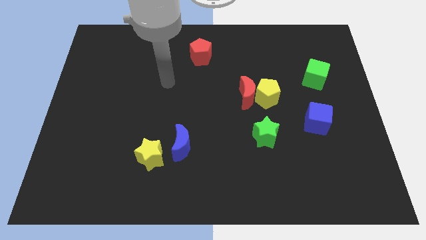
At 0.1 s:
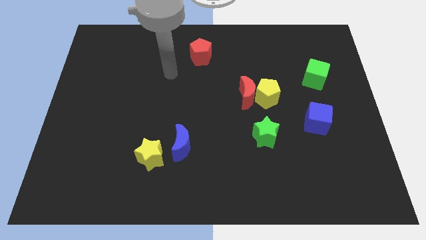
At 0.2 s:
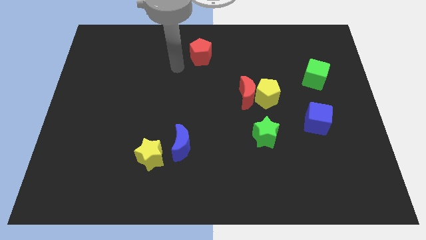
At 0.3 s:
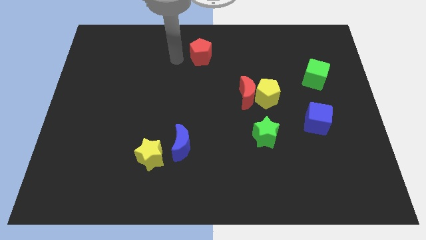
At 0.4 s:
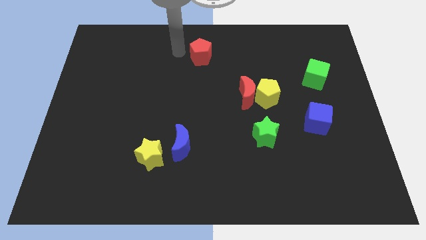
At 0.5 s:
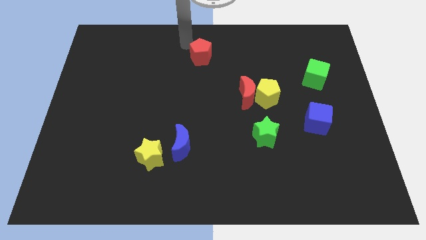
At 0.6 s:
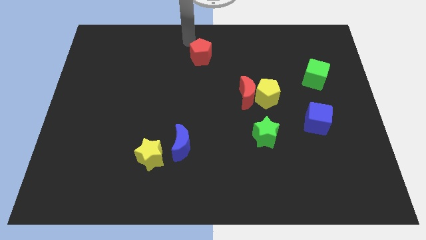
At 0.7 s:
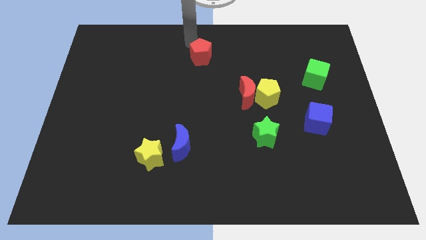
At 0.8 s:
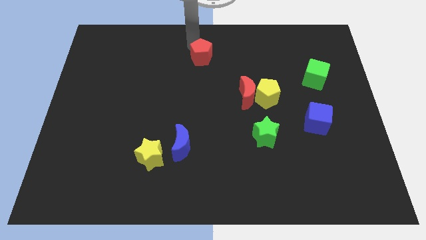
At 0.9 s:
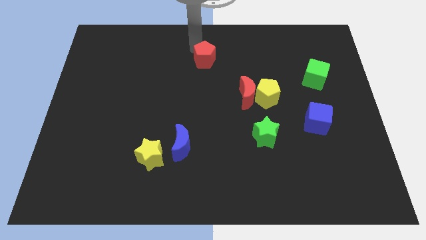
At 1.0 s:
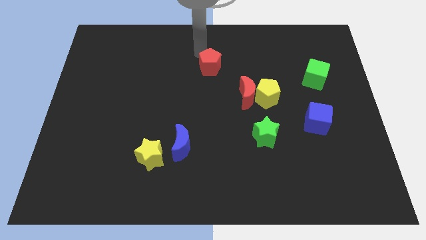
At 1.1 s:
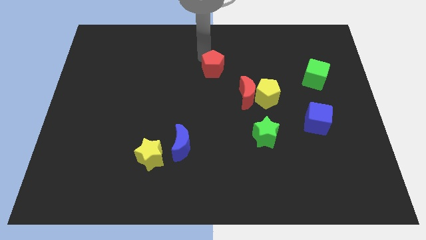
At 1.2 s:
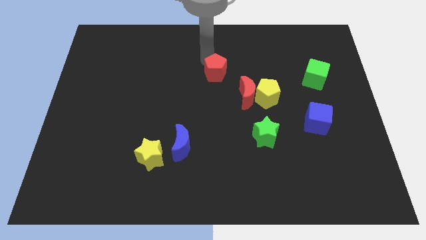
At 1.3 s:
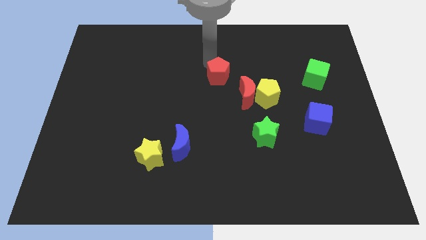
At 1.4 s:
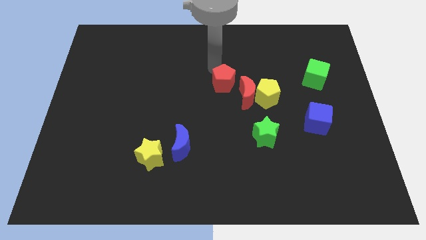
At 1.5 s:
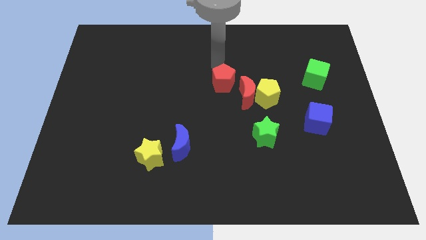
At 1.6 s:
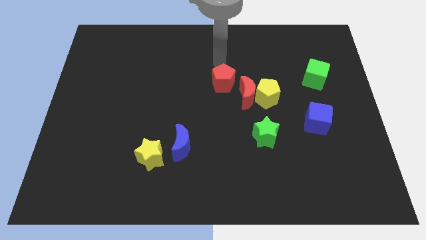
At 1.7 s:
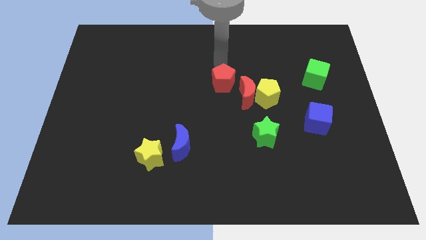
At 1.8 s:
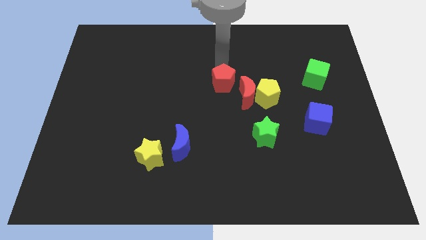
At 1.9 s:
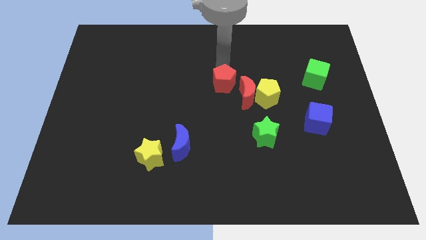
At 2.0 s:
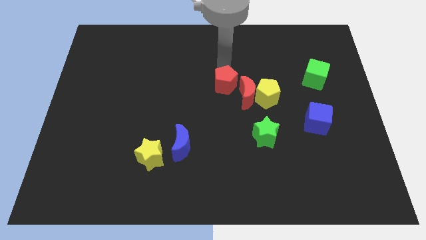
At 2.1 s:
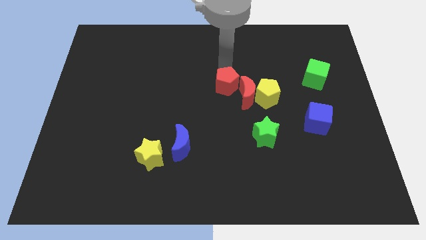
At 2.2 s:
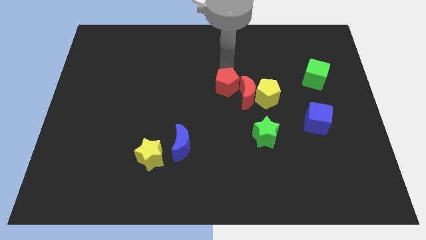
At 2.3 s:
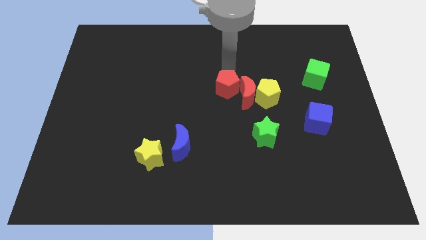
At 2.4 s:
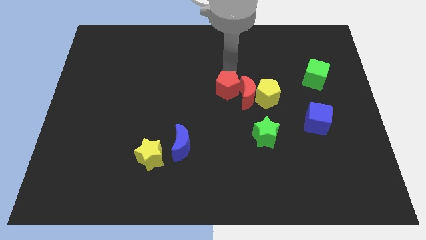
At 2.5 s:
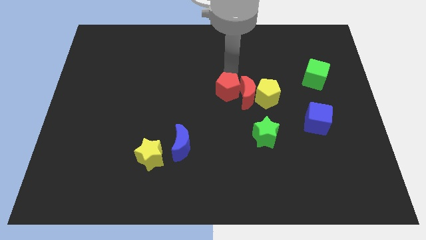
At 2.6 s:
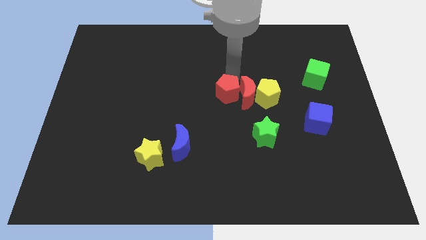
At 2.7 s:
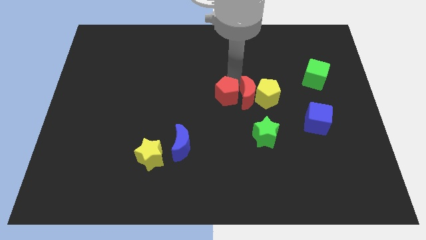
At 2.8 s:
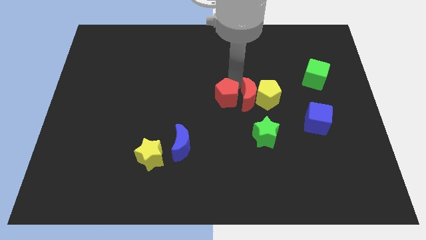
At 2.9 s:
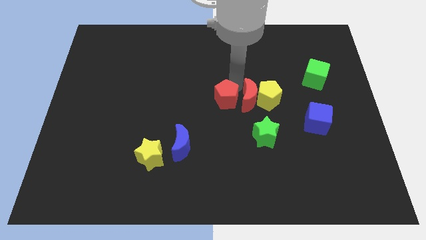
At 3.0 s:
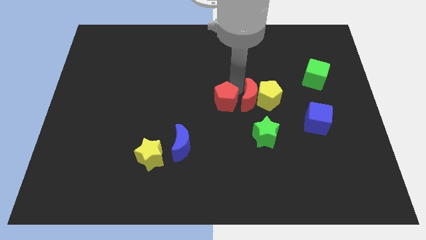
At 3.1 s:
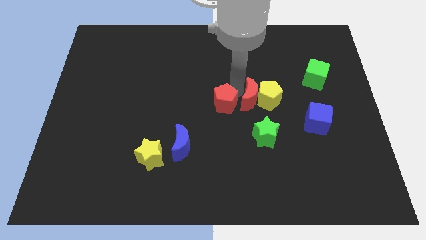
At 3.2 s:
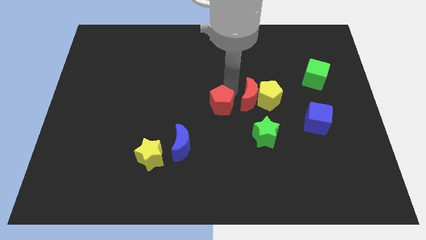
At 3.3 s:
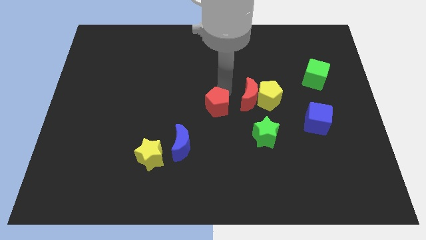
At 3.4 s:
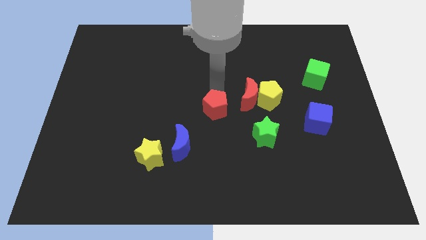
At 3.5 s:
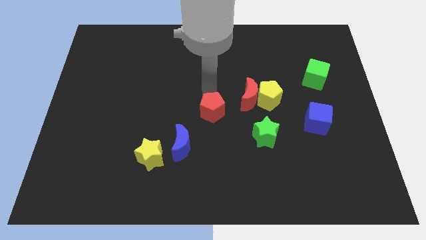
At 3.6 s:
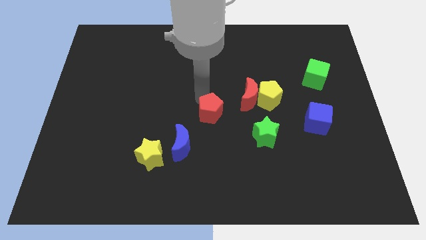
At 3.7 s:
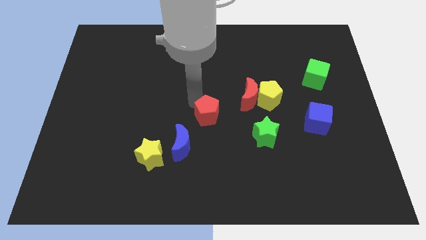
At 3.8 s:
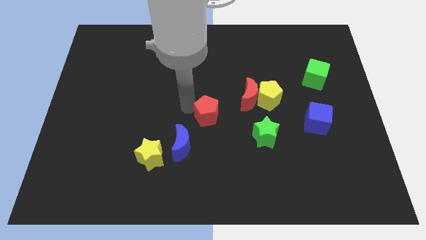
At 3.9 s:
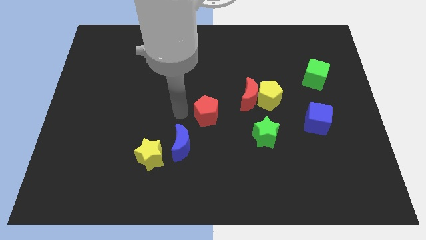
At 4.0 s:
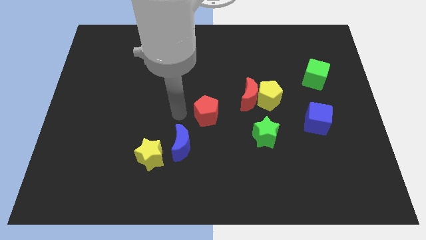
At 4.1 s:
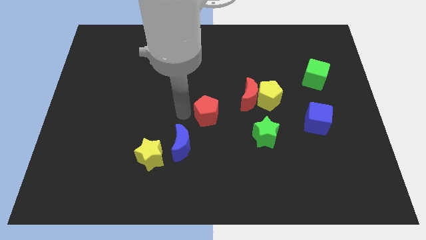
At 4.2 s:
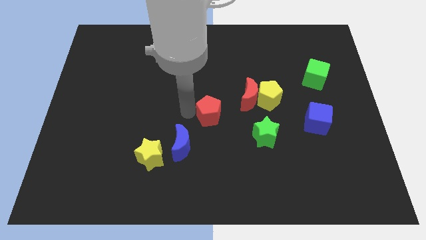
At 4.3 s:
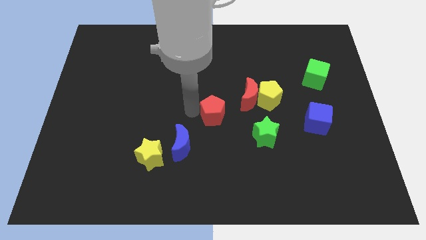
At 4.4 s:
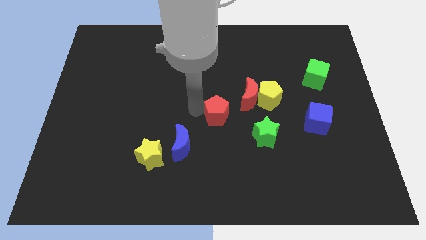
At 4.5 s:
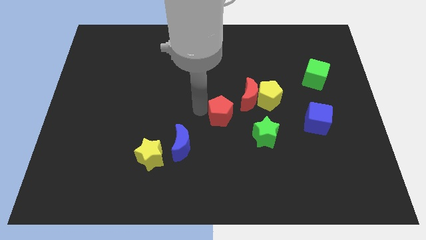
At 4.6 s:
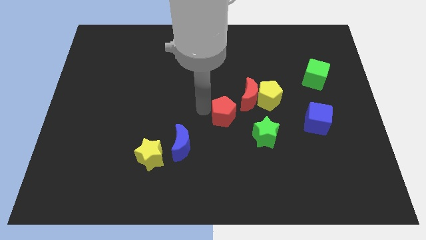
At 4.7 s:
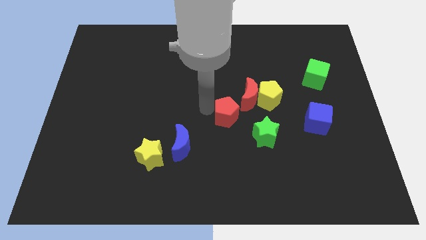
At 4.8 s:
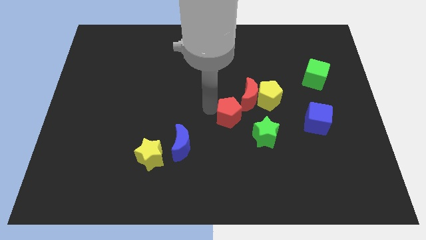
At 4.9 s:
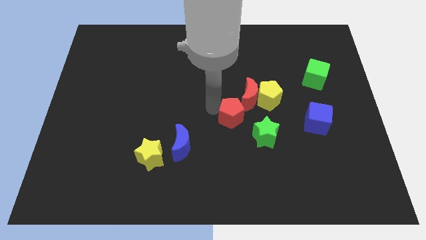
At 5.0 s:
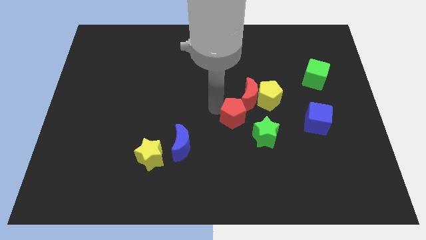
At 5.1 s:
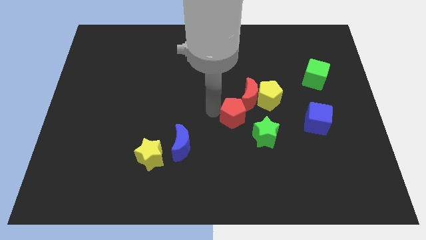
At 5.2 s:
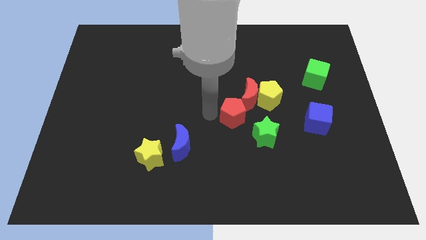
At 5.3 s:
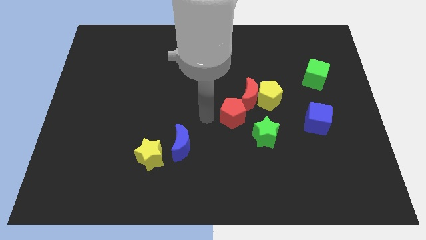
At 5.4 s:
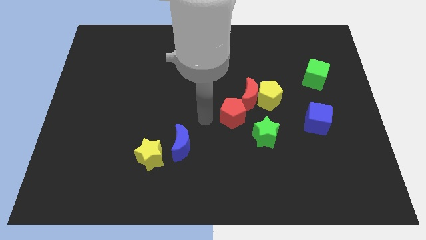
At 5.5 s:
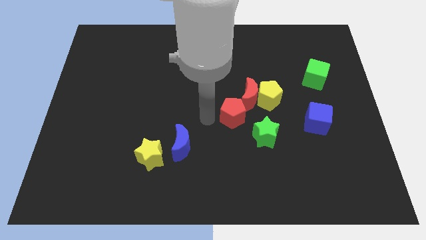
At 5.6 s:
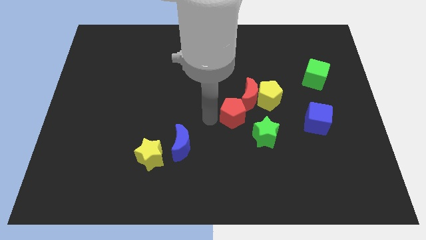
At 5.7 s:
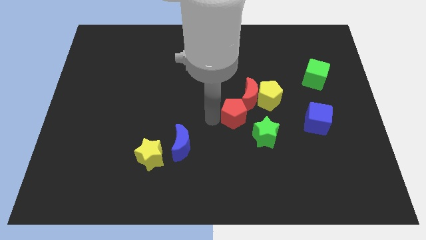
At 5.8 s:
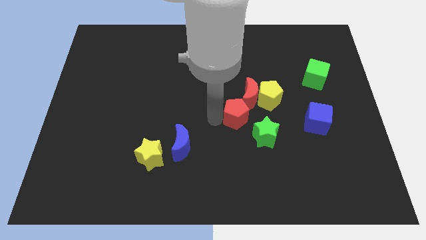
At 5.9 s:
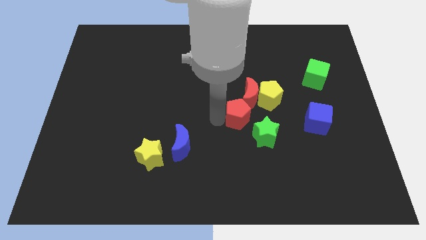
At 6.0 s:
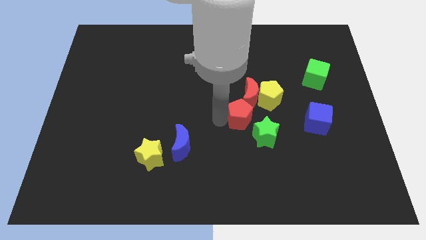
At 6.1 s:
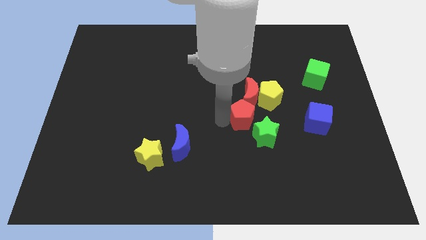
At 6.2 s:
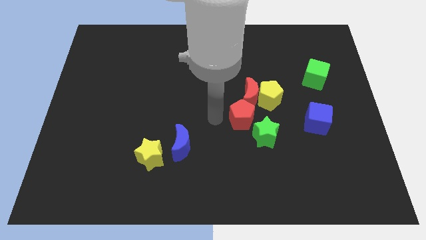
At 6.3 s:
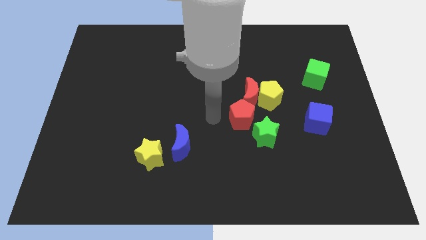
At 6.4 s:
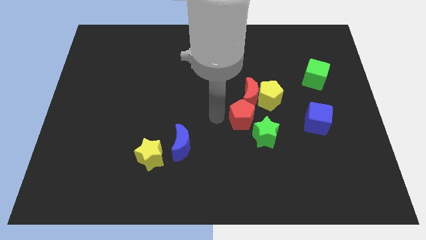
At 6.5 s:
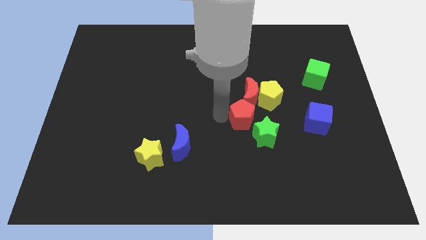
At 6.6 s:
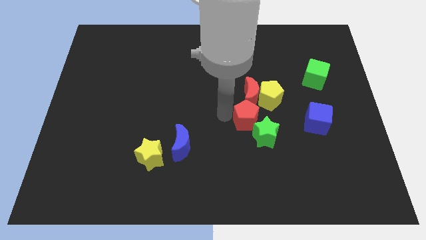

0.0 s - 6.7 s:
move the red pentagon downwards and to the right

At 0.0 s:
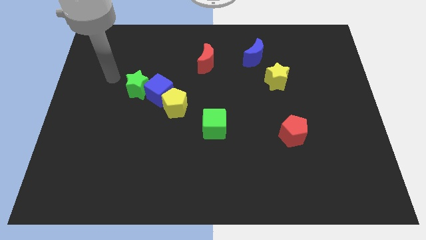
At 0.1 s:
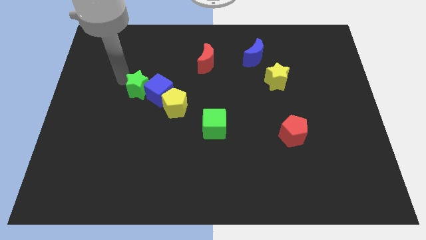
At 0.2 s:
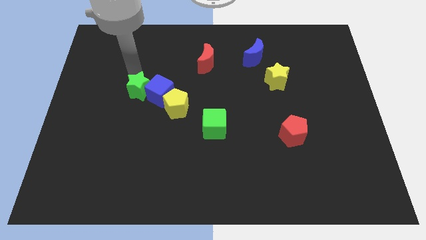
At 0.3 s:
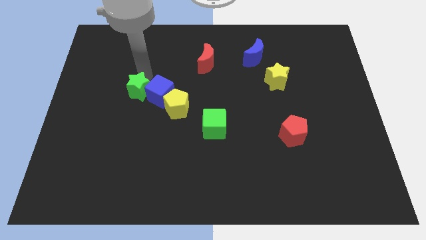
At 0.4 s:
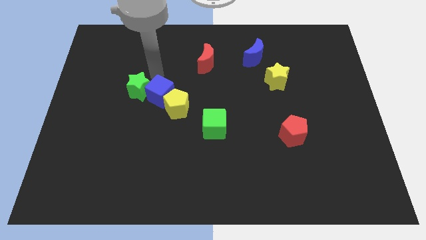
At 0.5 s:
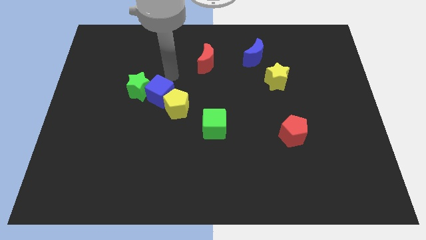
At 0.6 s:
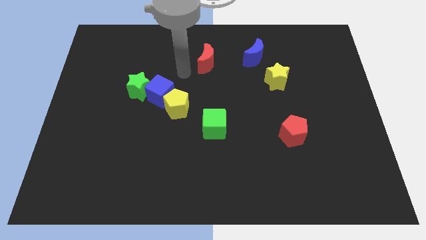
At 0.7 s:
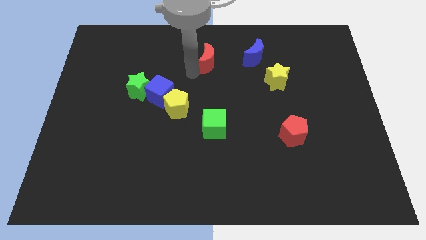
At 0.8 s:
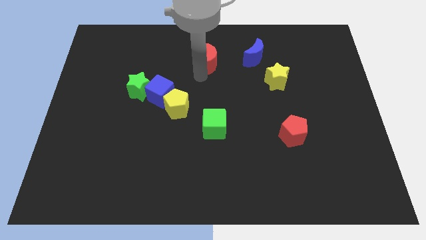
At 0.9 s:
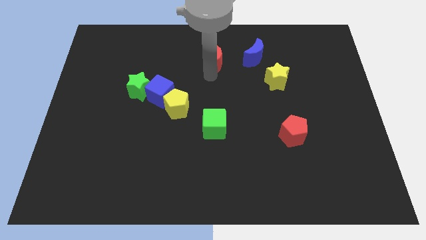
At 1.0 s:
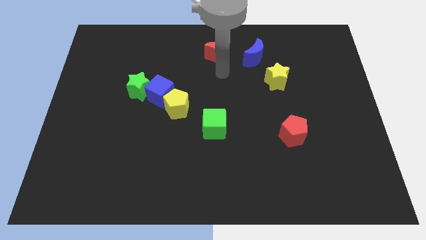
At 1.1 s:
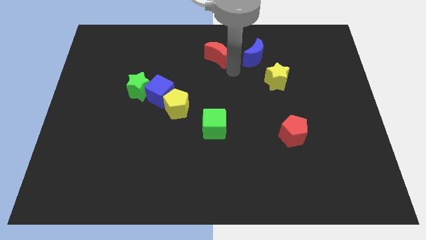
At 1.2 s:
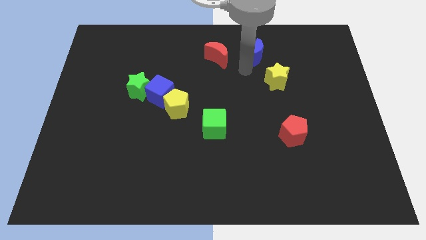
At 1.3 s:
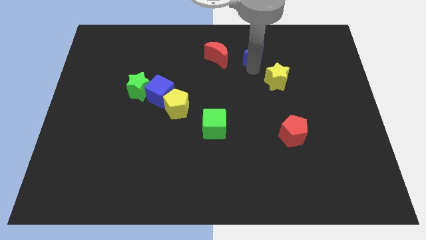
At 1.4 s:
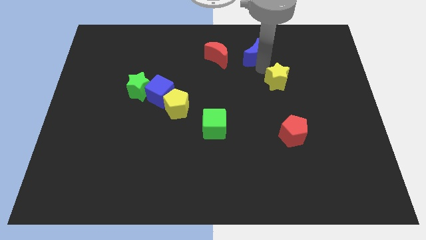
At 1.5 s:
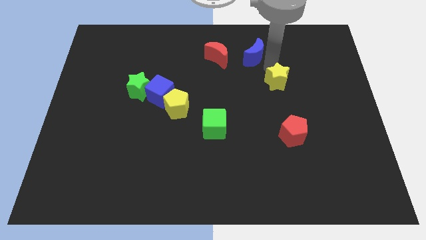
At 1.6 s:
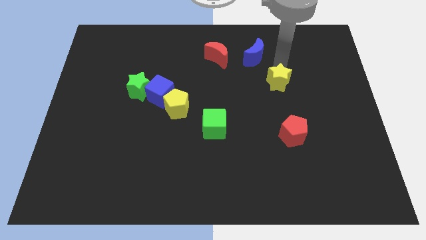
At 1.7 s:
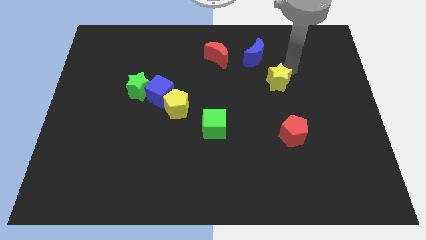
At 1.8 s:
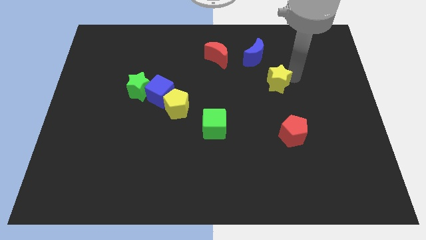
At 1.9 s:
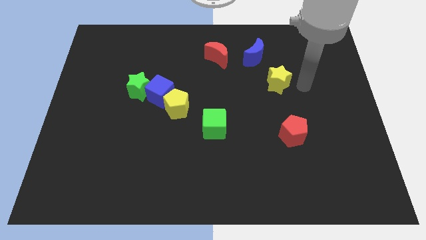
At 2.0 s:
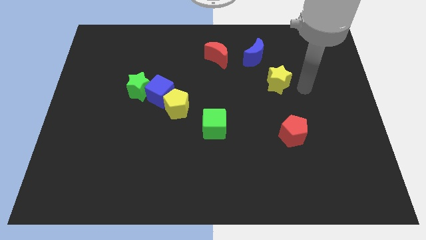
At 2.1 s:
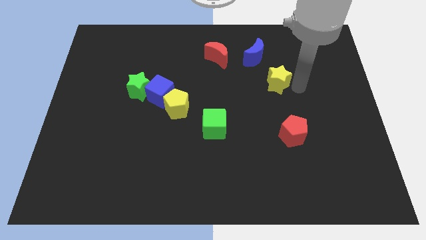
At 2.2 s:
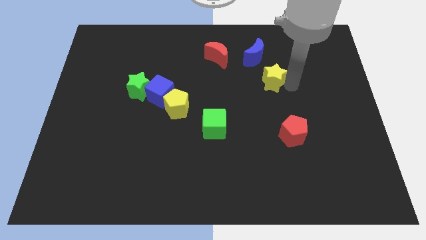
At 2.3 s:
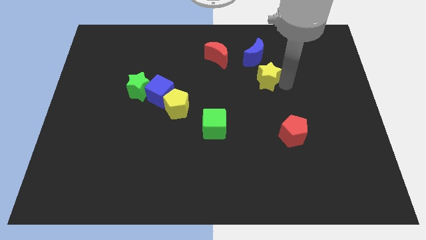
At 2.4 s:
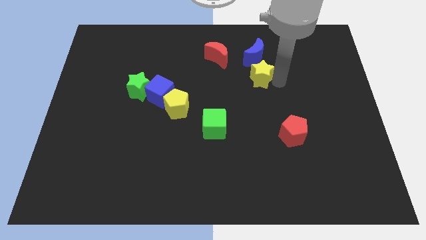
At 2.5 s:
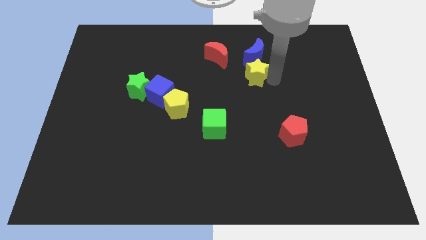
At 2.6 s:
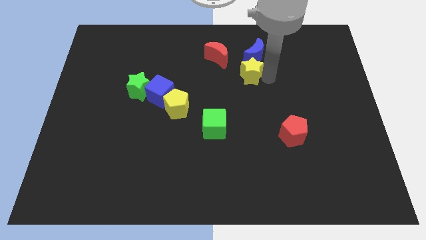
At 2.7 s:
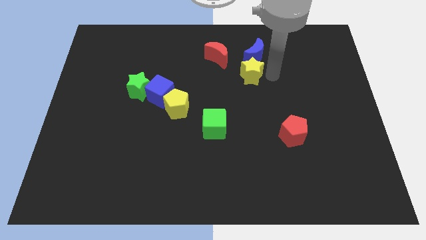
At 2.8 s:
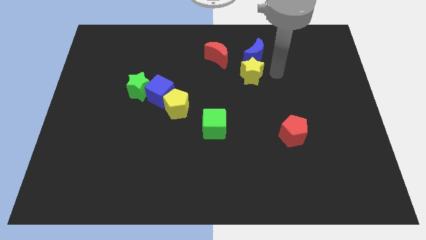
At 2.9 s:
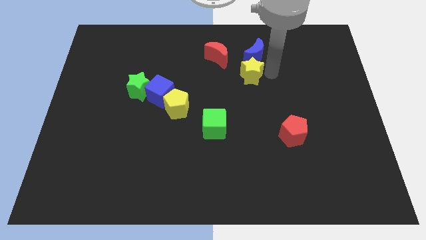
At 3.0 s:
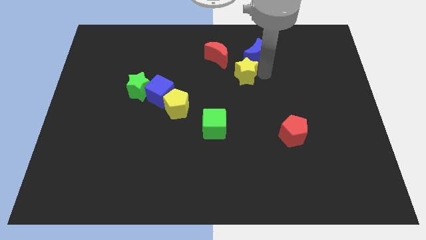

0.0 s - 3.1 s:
move the yellow star somewhat to the left
